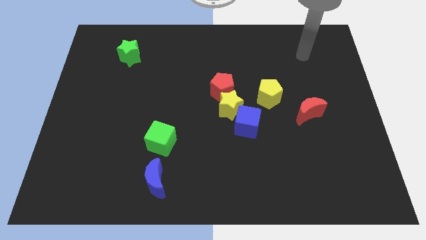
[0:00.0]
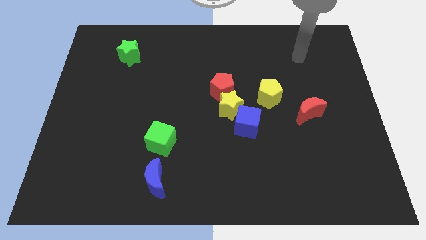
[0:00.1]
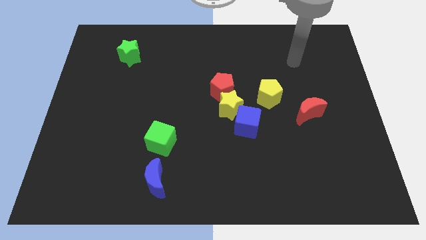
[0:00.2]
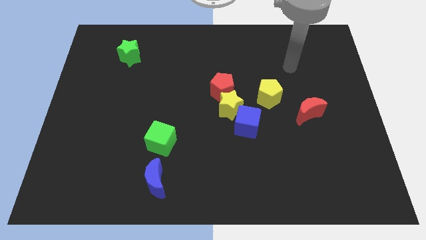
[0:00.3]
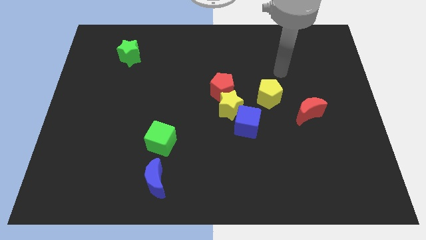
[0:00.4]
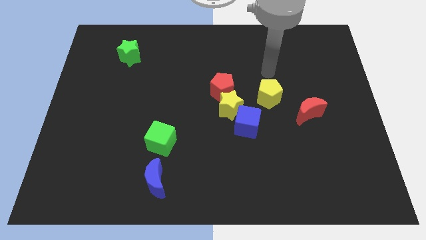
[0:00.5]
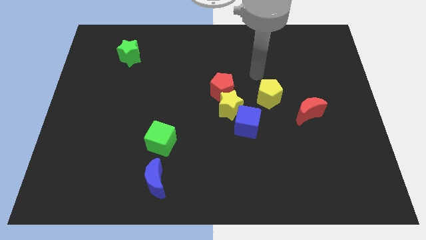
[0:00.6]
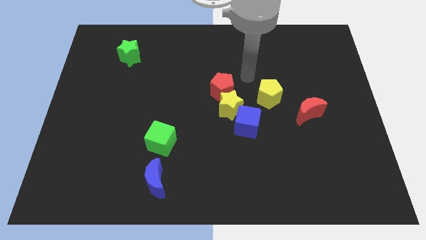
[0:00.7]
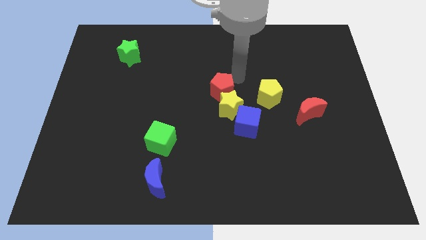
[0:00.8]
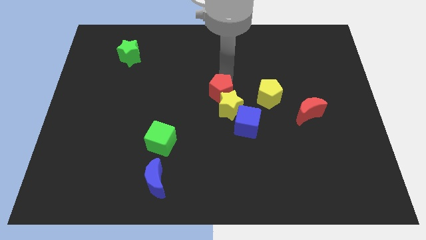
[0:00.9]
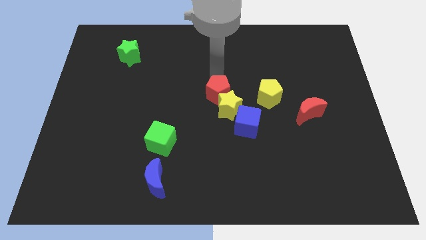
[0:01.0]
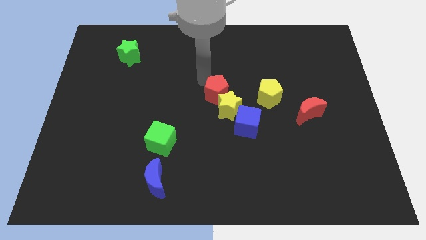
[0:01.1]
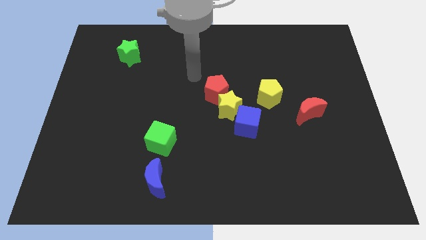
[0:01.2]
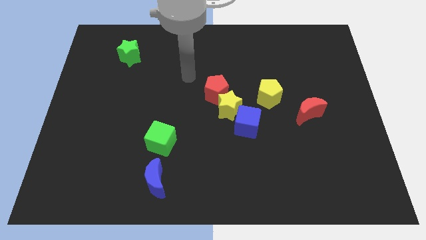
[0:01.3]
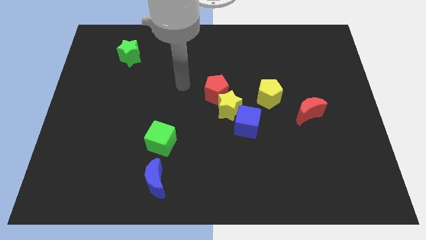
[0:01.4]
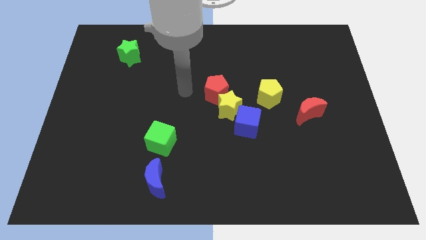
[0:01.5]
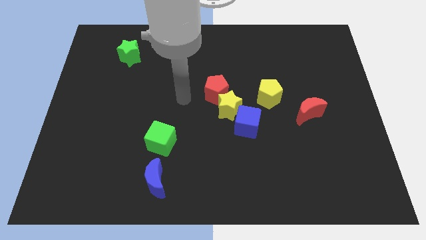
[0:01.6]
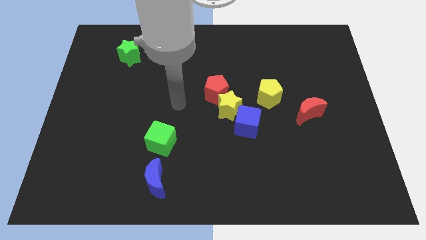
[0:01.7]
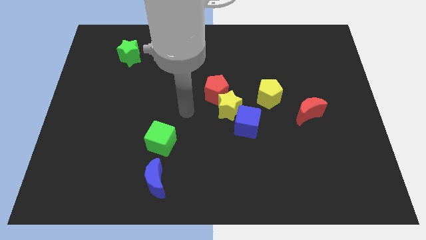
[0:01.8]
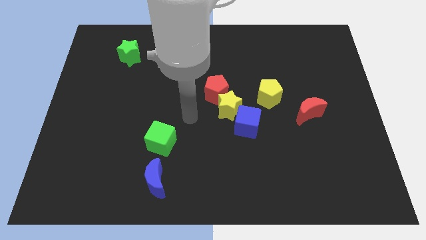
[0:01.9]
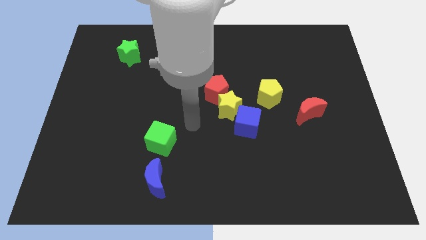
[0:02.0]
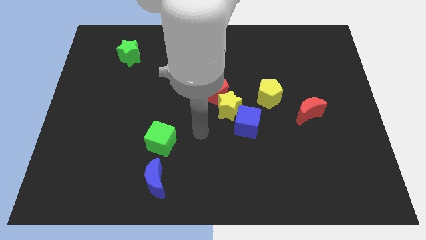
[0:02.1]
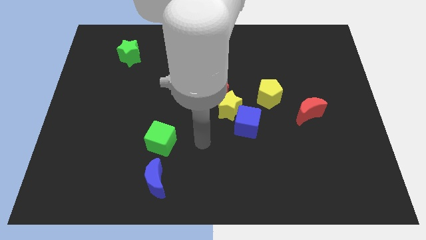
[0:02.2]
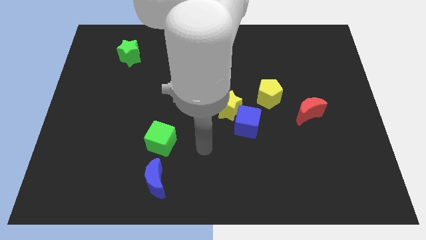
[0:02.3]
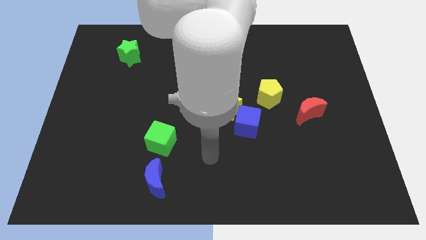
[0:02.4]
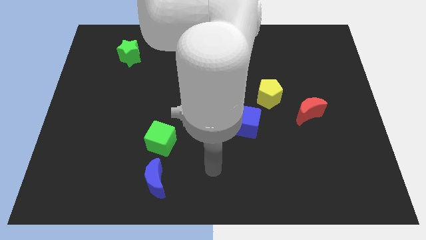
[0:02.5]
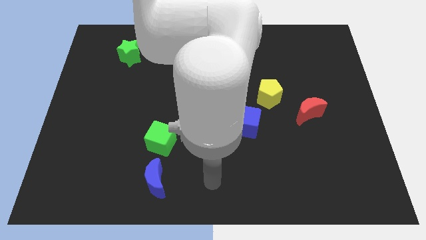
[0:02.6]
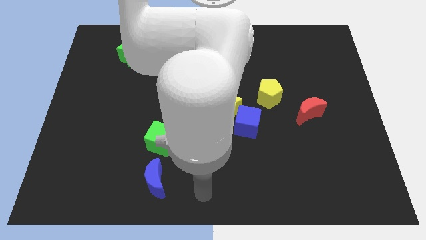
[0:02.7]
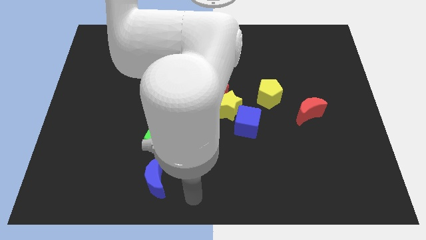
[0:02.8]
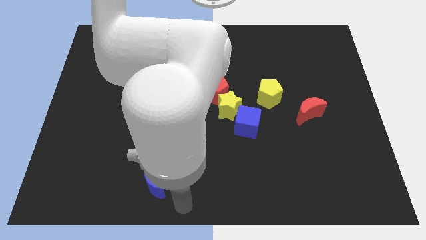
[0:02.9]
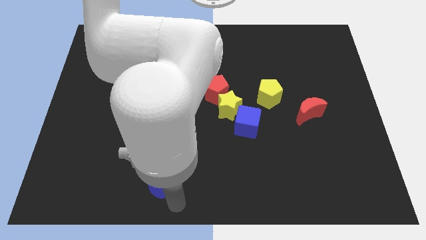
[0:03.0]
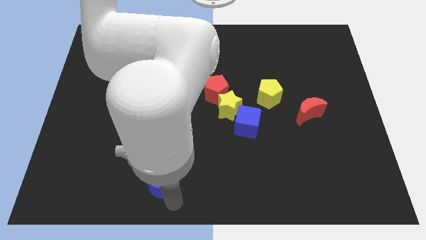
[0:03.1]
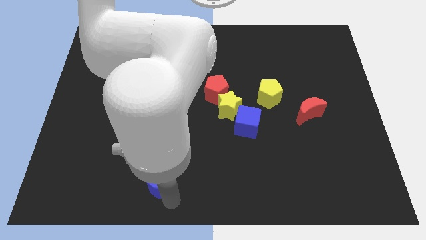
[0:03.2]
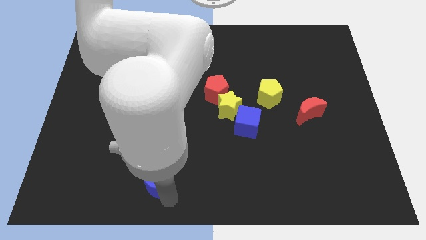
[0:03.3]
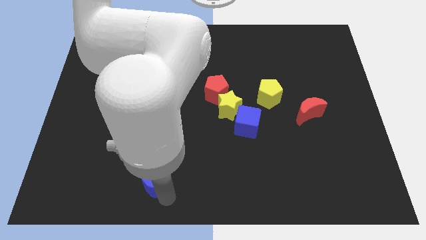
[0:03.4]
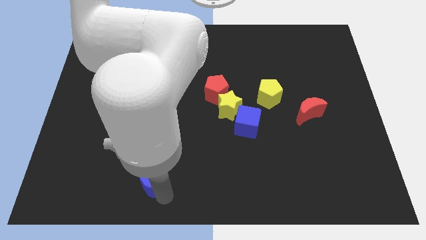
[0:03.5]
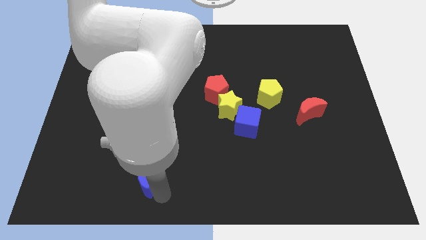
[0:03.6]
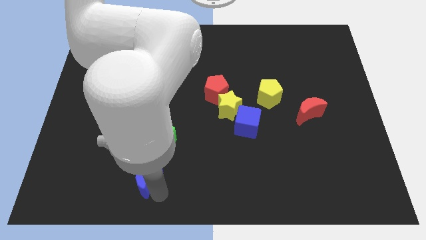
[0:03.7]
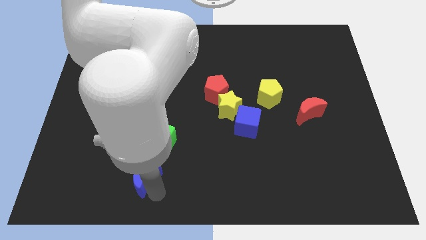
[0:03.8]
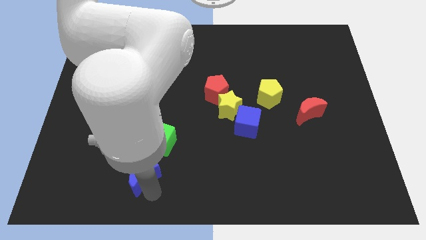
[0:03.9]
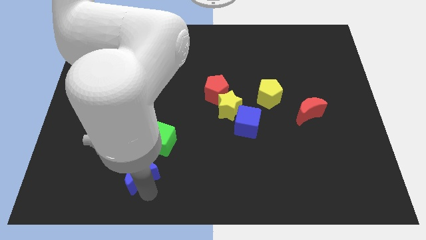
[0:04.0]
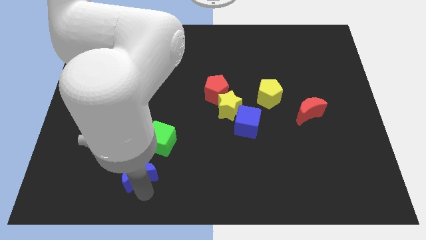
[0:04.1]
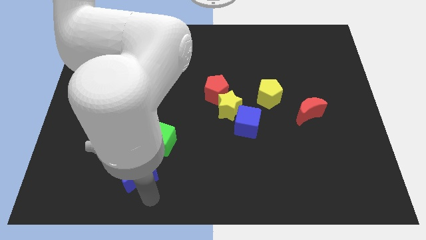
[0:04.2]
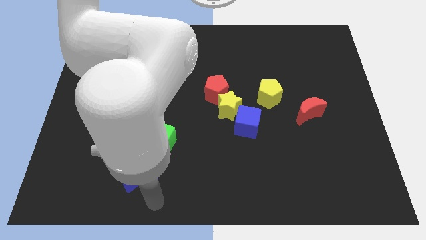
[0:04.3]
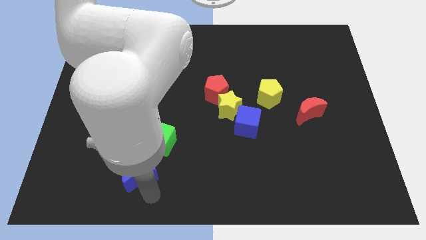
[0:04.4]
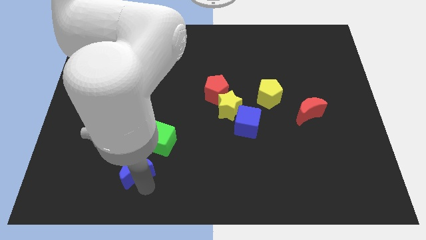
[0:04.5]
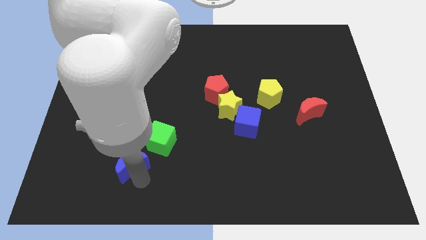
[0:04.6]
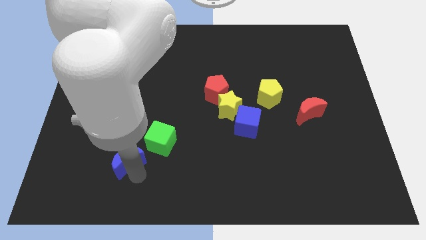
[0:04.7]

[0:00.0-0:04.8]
move the blue moon upwards and left a bit

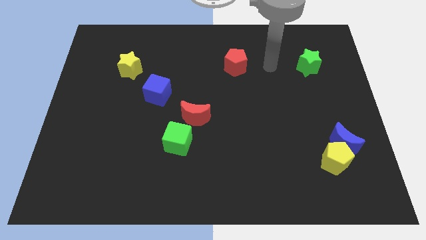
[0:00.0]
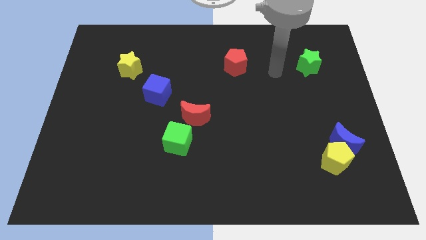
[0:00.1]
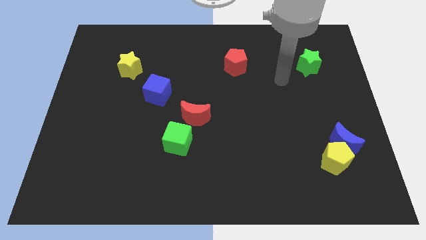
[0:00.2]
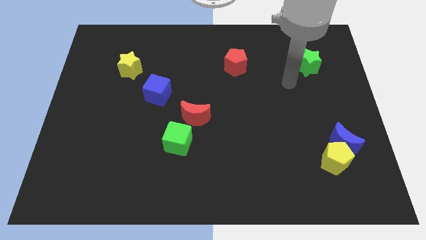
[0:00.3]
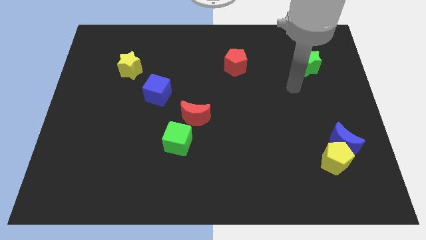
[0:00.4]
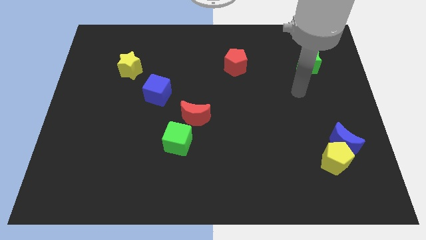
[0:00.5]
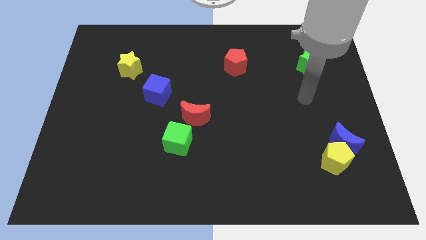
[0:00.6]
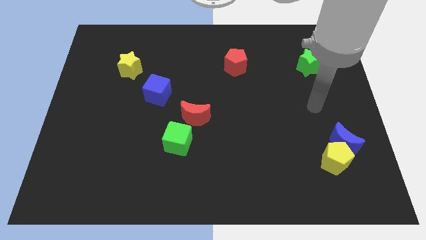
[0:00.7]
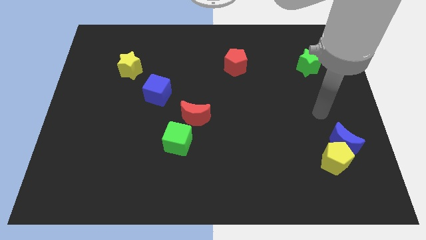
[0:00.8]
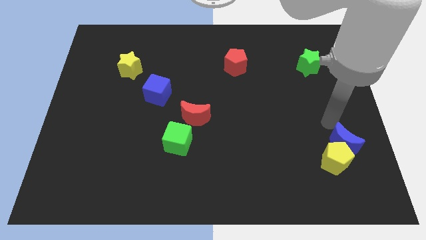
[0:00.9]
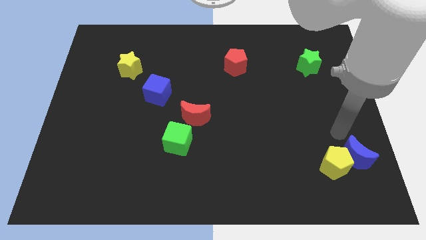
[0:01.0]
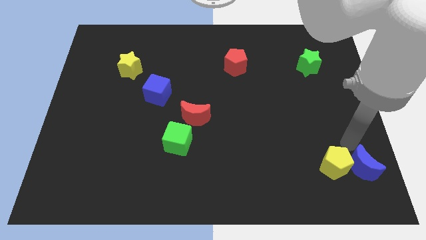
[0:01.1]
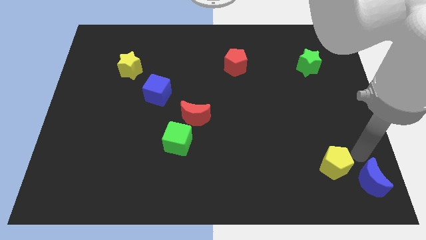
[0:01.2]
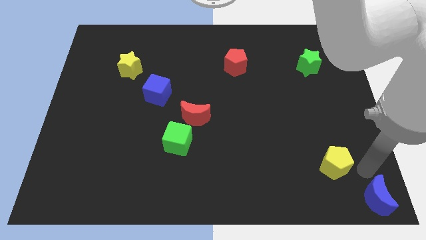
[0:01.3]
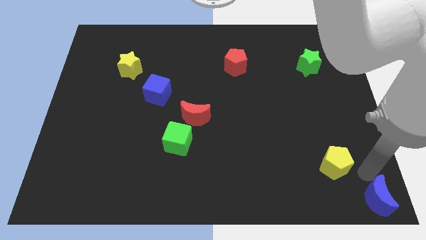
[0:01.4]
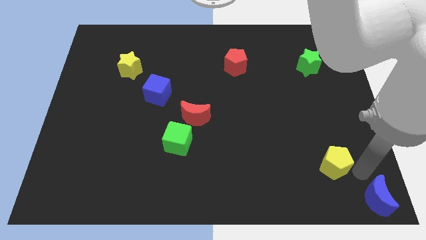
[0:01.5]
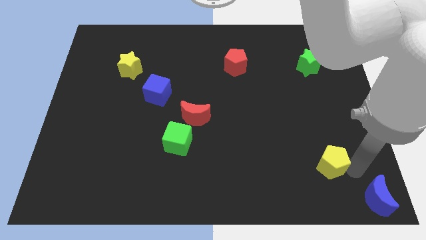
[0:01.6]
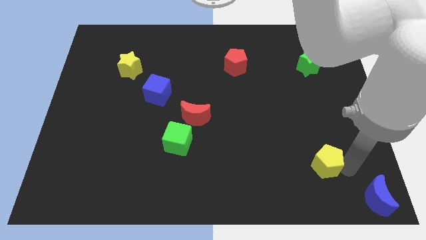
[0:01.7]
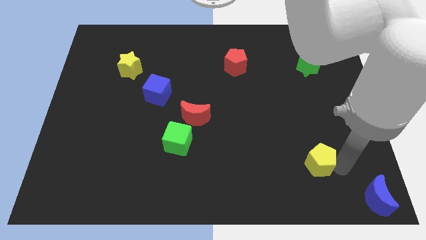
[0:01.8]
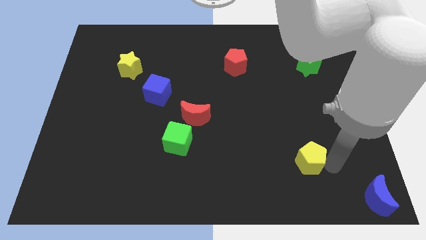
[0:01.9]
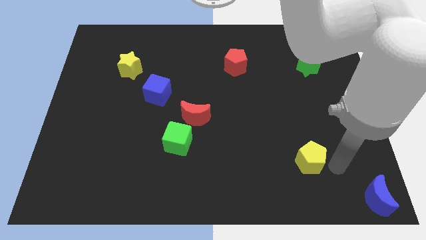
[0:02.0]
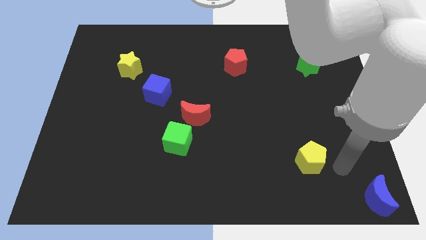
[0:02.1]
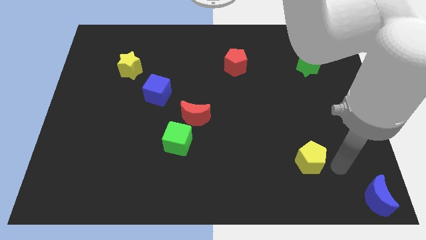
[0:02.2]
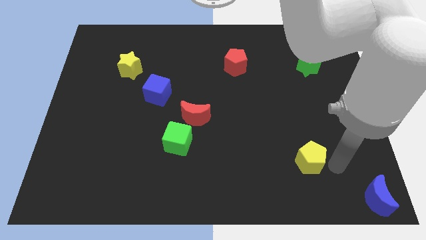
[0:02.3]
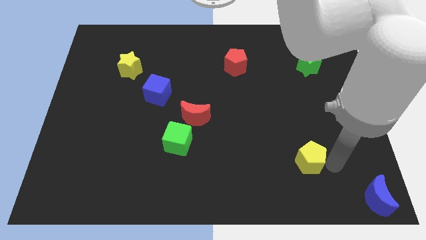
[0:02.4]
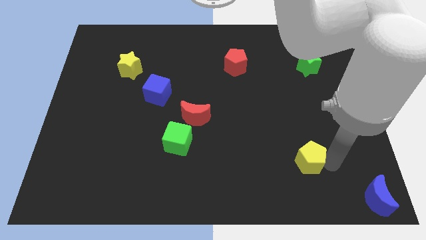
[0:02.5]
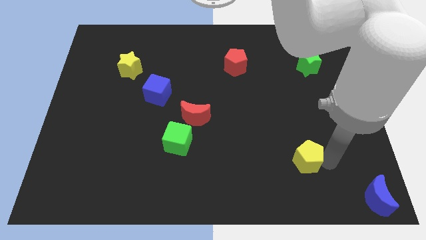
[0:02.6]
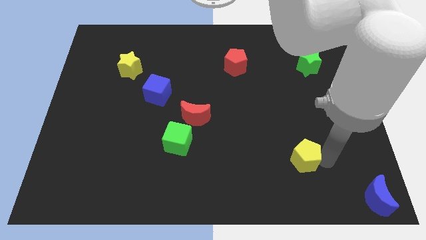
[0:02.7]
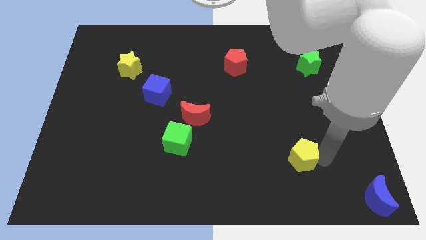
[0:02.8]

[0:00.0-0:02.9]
slightly move the yellow pentagon to the left
